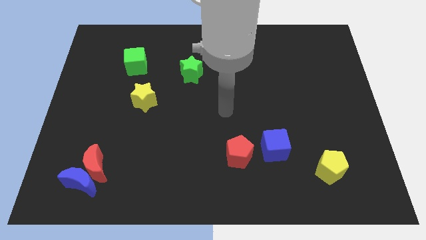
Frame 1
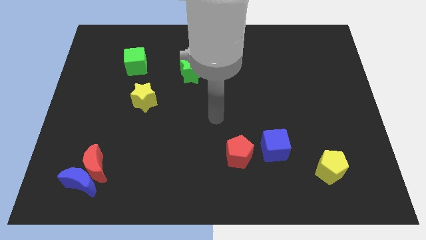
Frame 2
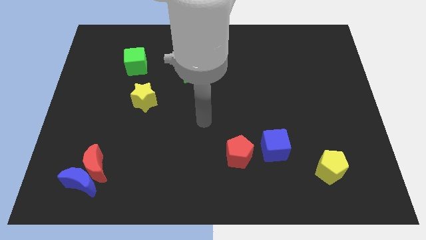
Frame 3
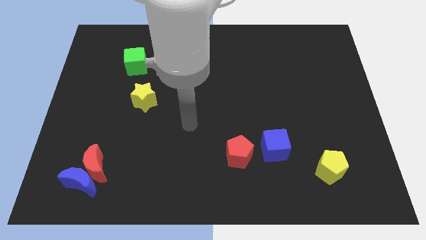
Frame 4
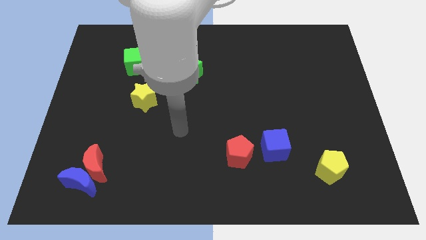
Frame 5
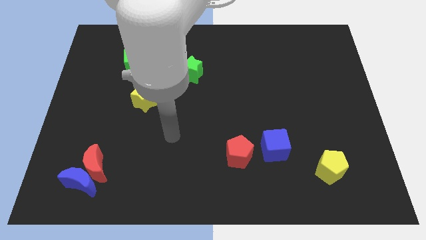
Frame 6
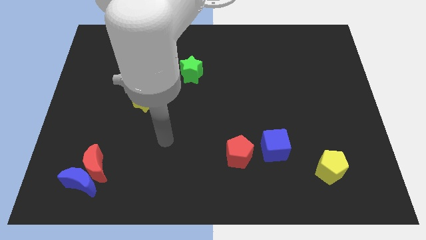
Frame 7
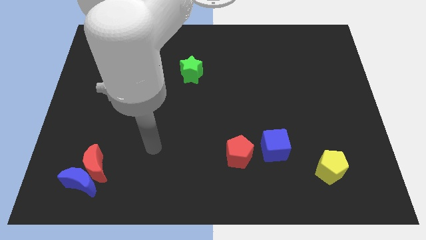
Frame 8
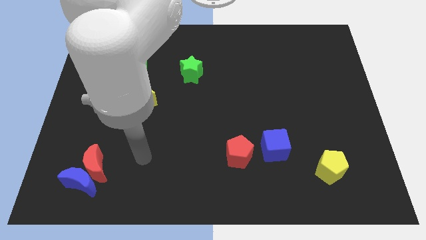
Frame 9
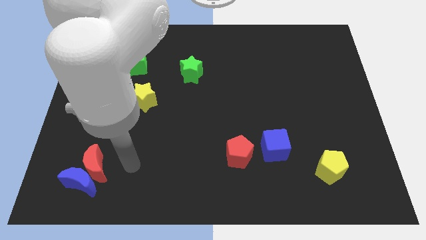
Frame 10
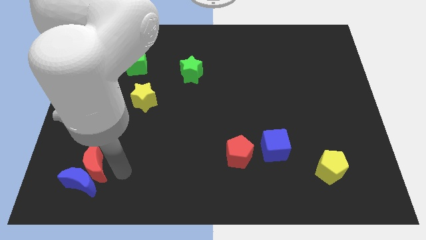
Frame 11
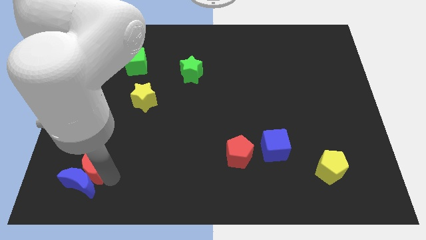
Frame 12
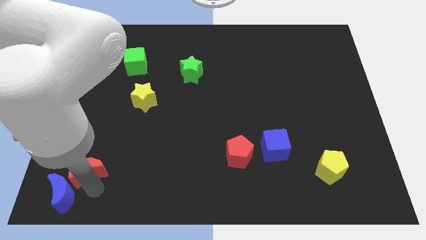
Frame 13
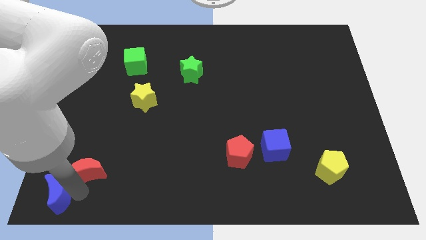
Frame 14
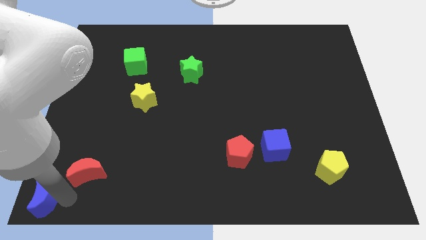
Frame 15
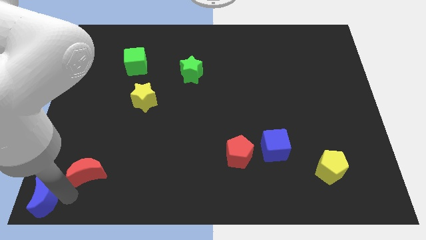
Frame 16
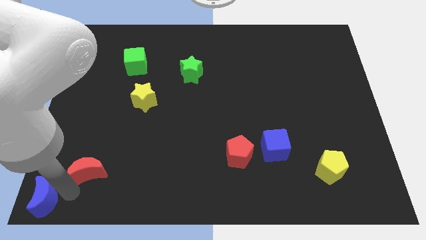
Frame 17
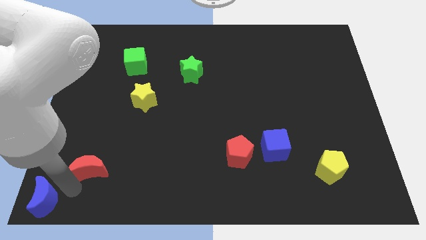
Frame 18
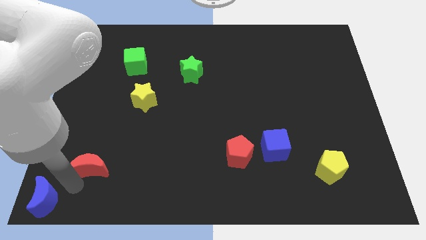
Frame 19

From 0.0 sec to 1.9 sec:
pull the red moon apart from the blue moon

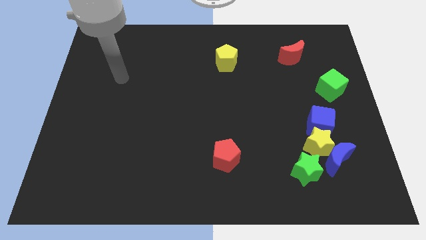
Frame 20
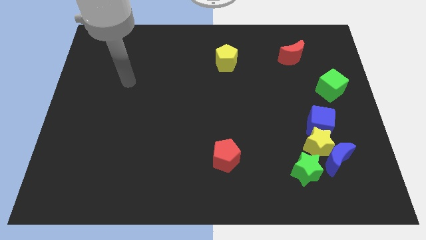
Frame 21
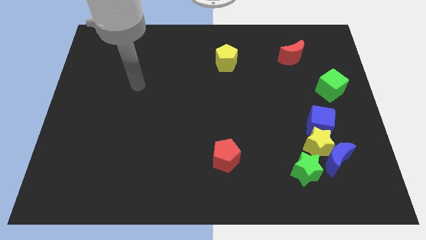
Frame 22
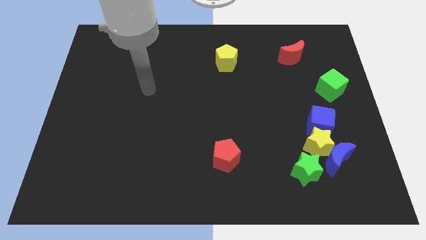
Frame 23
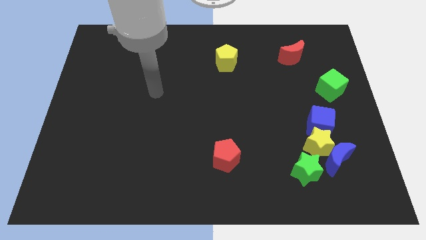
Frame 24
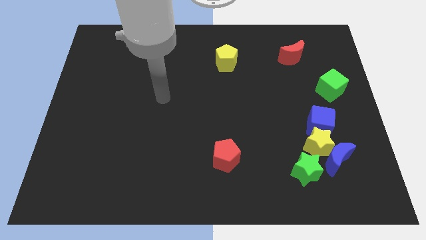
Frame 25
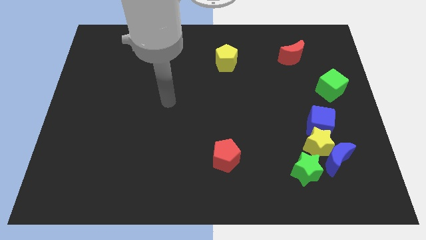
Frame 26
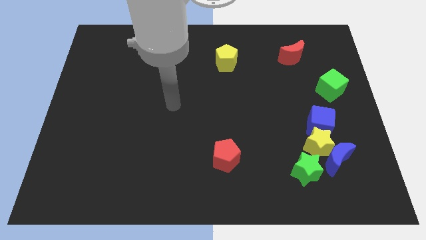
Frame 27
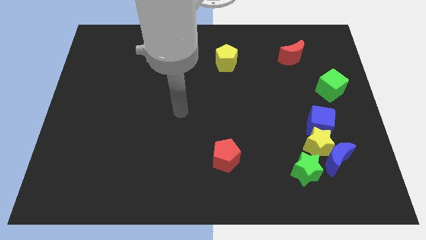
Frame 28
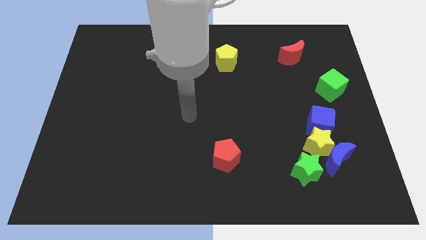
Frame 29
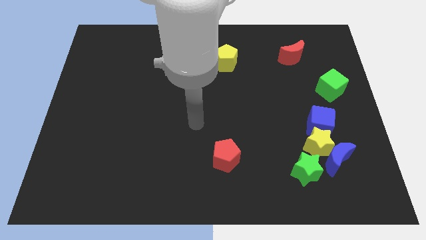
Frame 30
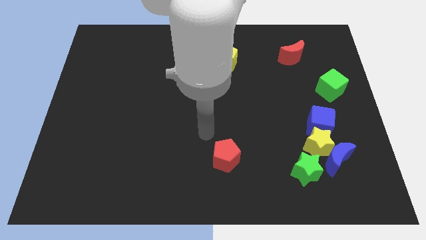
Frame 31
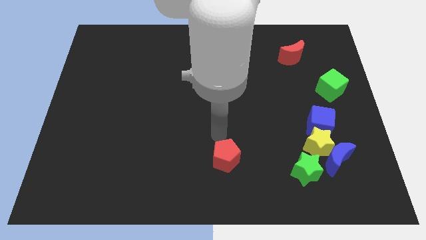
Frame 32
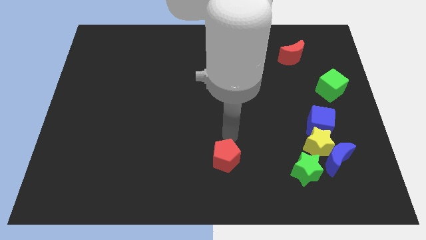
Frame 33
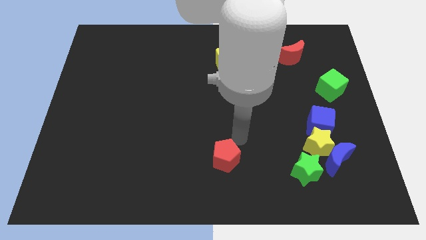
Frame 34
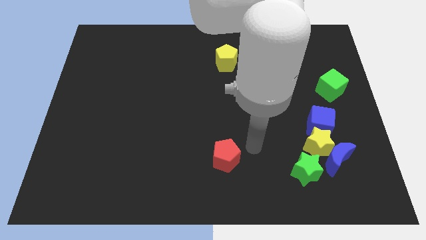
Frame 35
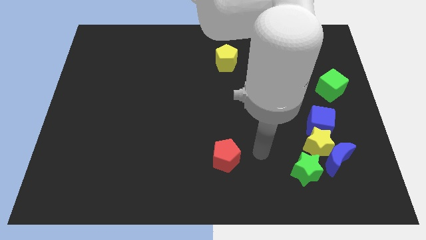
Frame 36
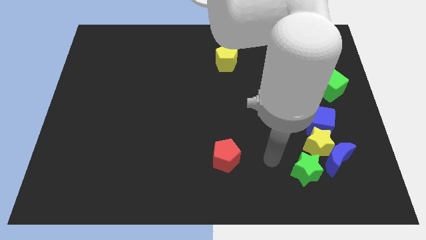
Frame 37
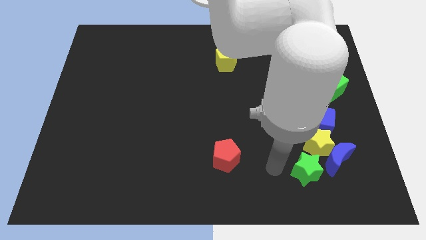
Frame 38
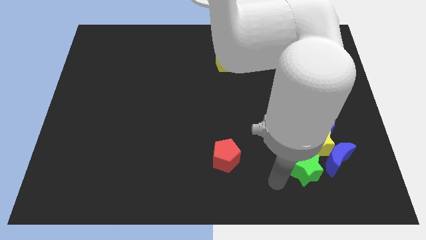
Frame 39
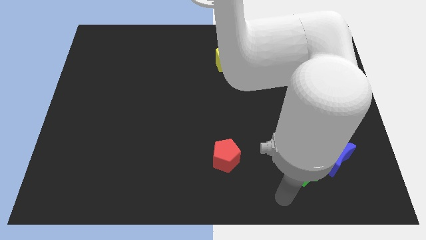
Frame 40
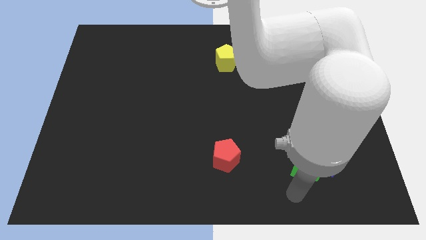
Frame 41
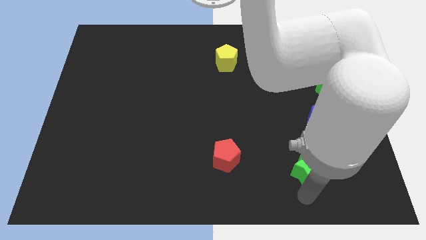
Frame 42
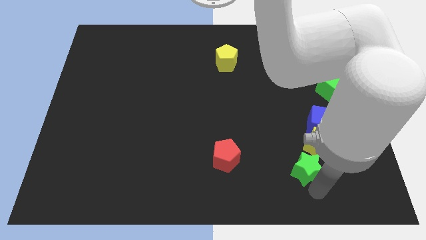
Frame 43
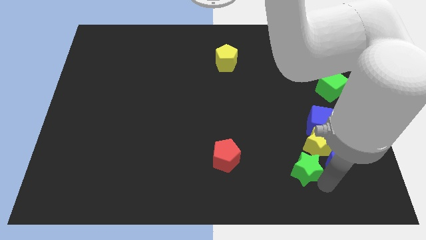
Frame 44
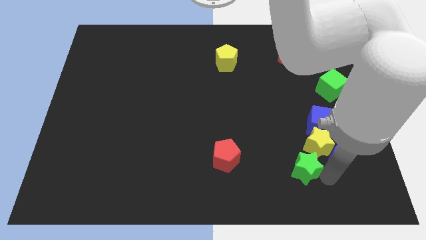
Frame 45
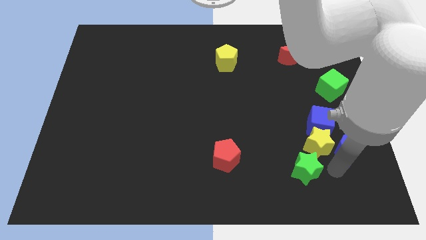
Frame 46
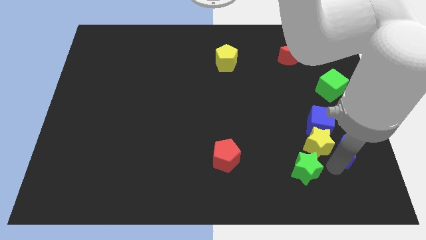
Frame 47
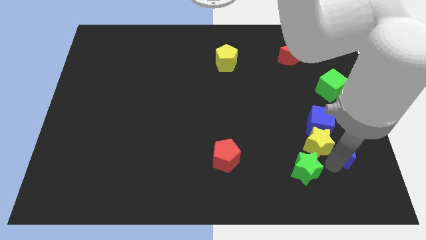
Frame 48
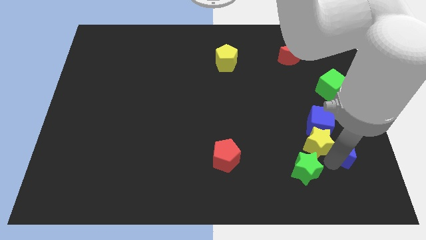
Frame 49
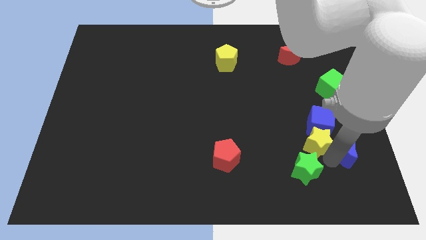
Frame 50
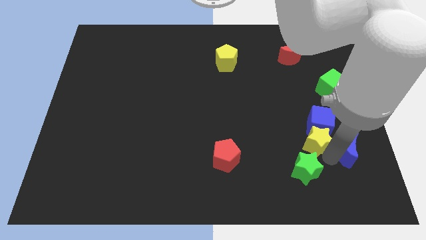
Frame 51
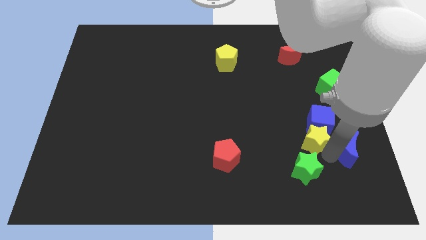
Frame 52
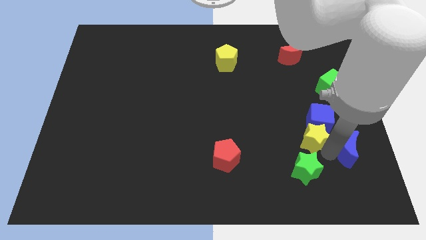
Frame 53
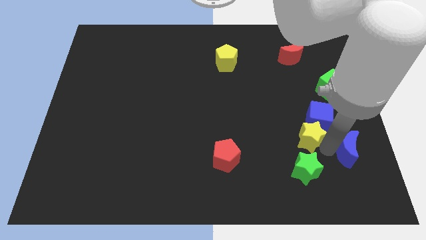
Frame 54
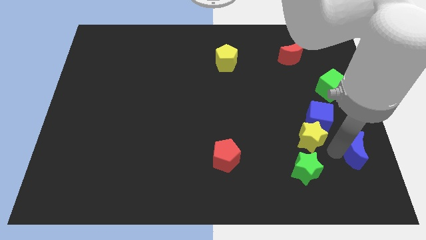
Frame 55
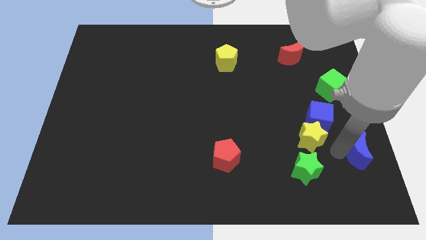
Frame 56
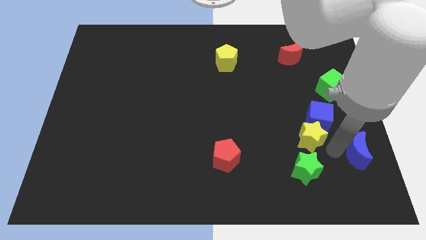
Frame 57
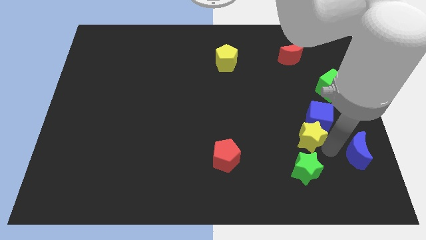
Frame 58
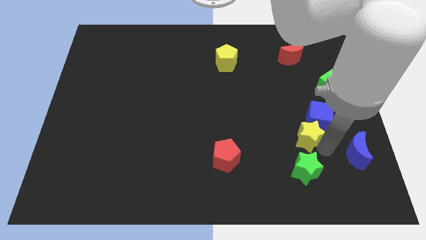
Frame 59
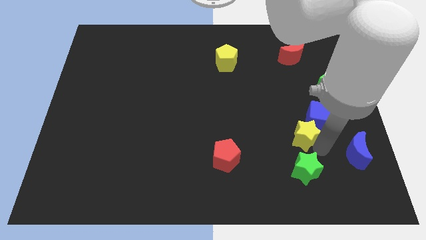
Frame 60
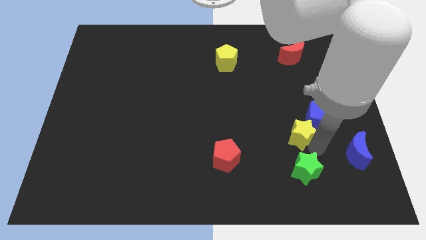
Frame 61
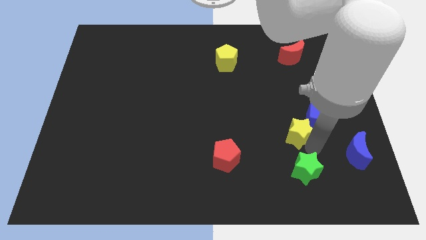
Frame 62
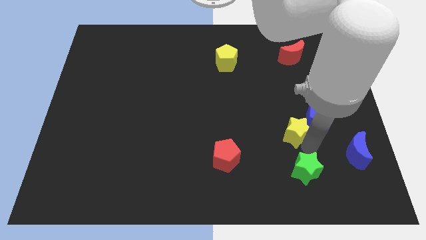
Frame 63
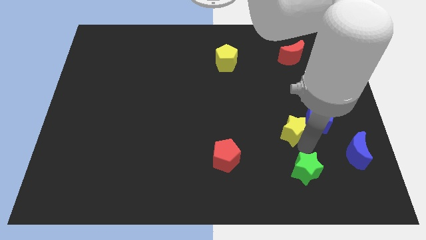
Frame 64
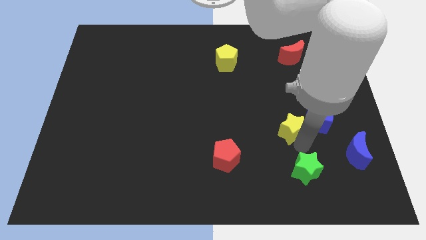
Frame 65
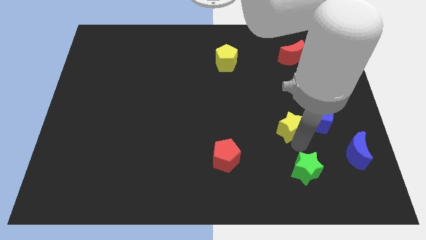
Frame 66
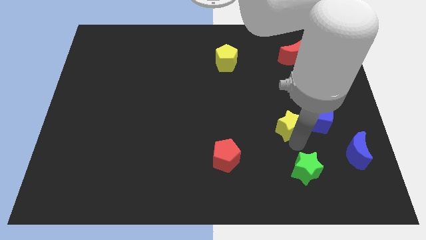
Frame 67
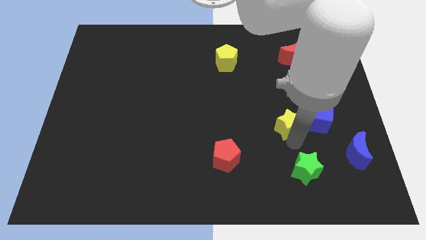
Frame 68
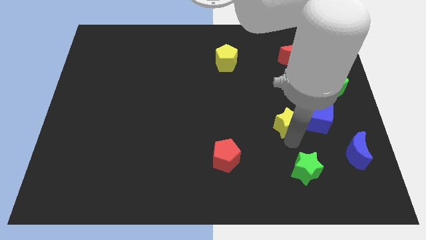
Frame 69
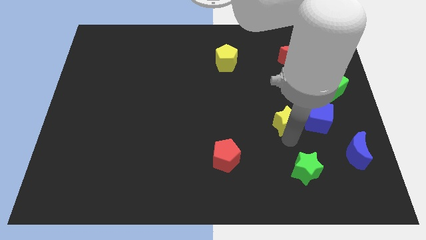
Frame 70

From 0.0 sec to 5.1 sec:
separate the yellow star from the group of blocks

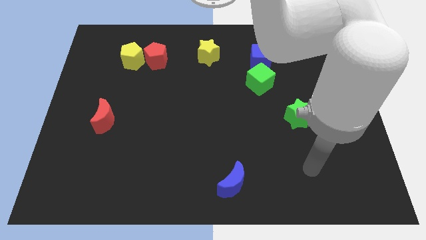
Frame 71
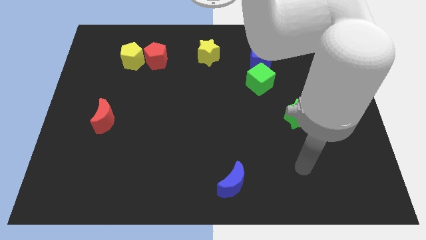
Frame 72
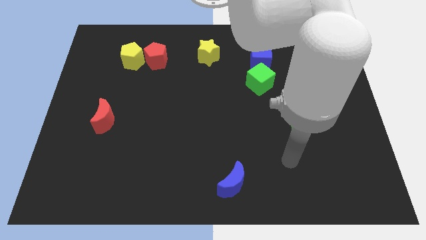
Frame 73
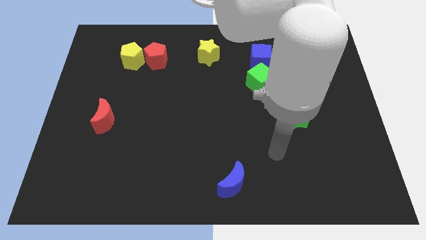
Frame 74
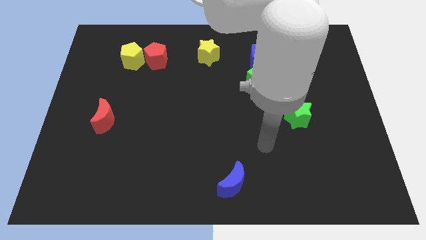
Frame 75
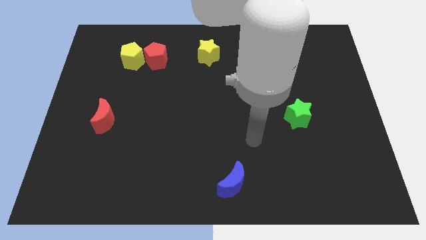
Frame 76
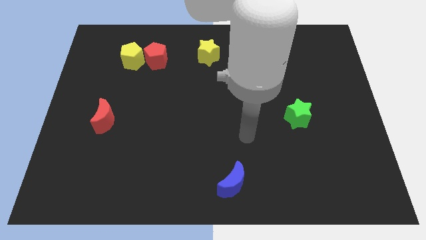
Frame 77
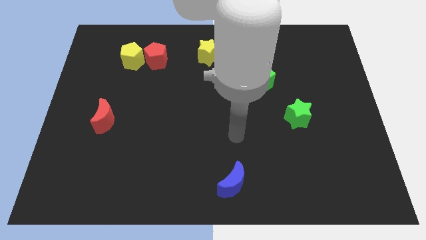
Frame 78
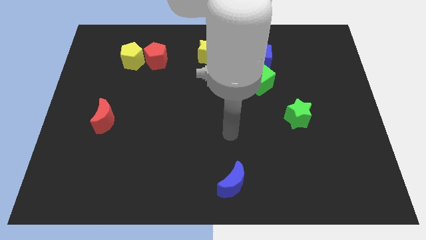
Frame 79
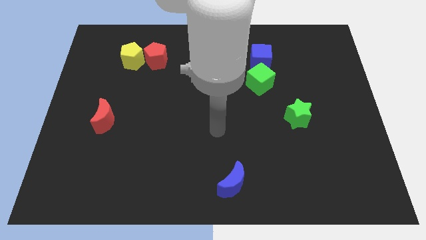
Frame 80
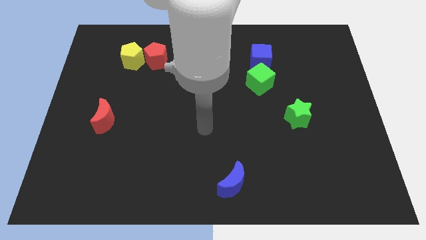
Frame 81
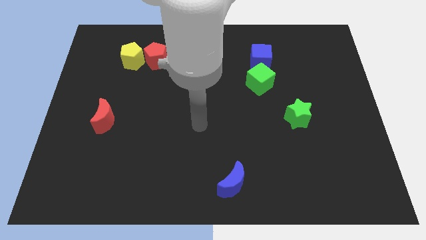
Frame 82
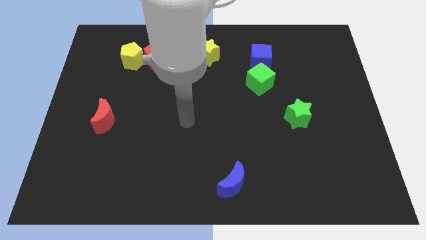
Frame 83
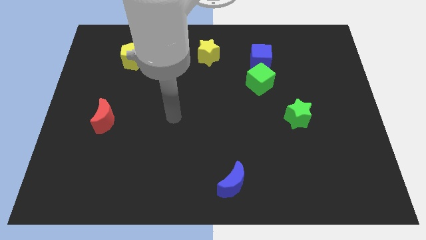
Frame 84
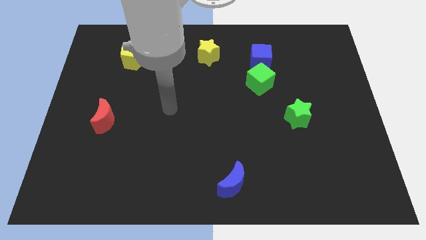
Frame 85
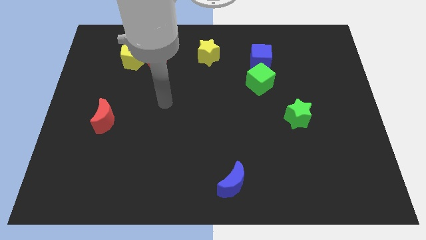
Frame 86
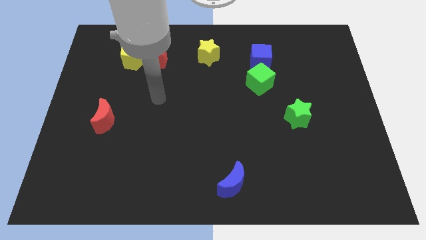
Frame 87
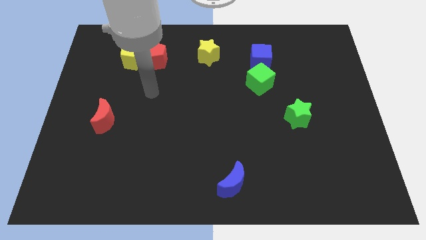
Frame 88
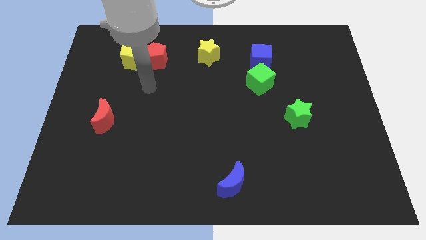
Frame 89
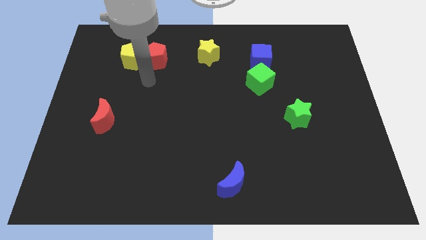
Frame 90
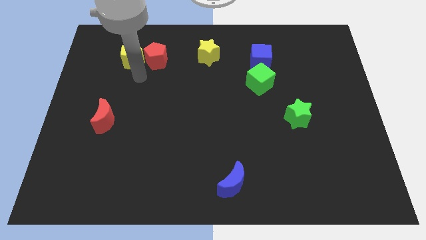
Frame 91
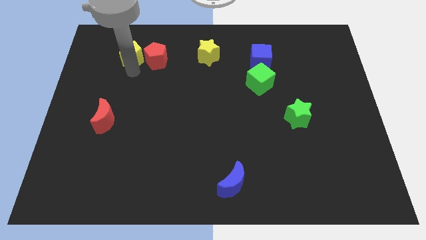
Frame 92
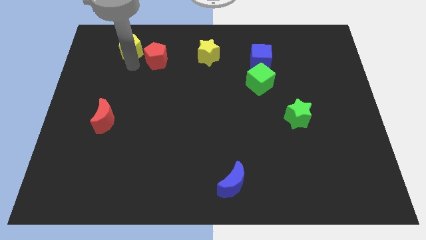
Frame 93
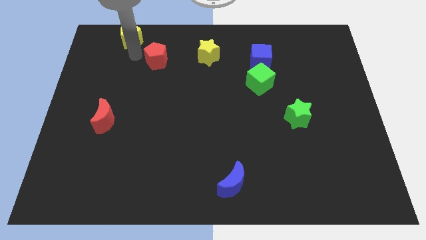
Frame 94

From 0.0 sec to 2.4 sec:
pull the red pentagon apart from the yellow pentagon

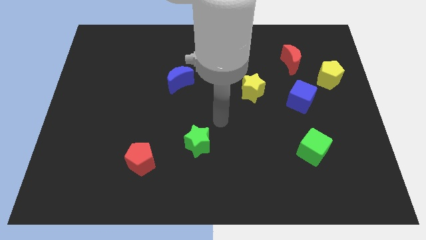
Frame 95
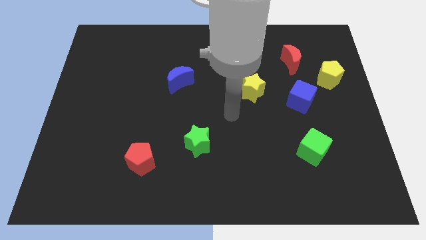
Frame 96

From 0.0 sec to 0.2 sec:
move the red moon away from the yellow pentagon
